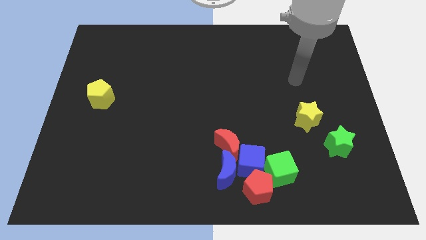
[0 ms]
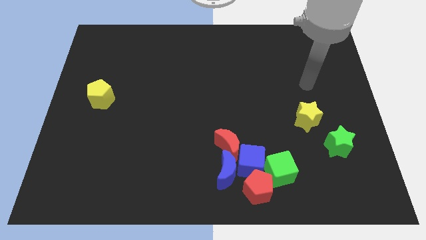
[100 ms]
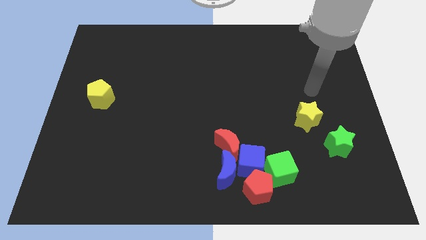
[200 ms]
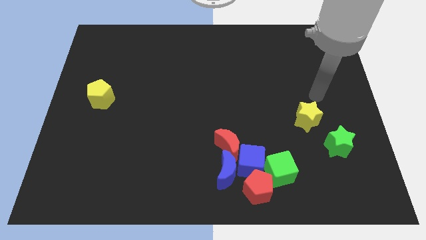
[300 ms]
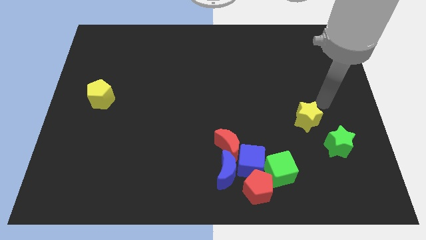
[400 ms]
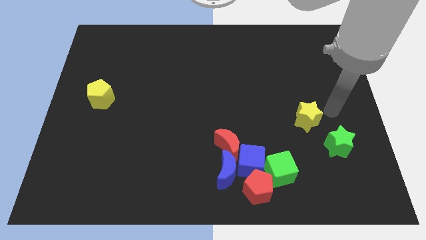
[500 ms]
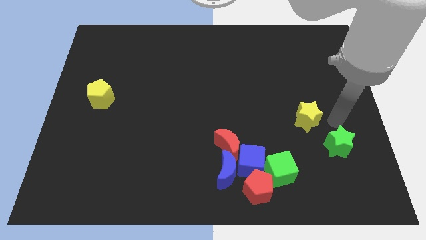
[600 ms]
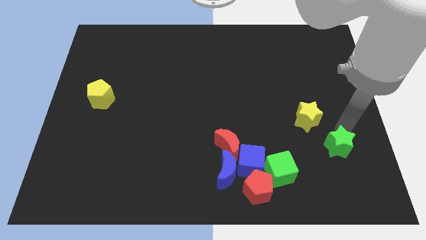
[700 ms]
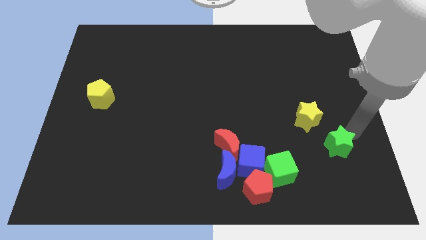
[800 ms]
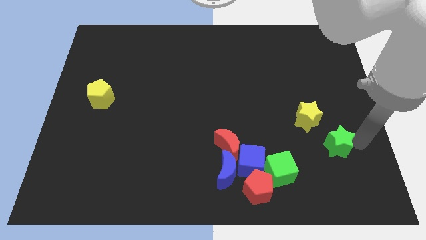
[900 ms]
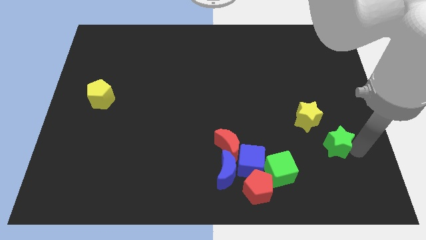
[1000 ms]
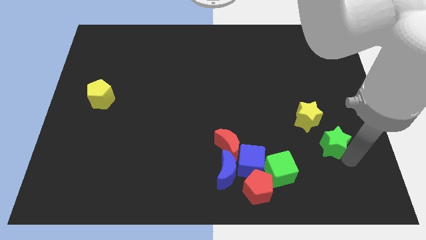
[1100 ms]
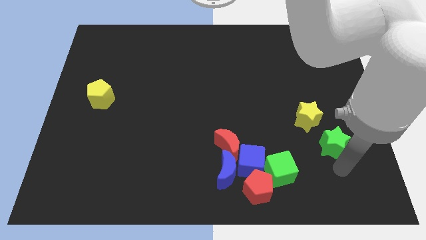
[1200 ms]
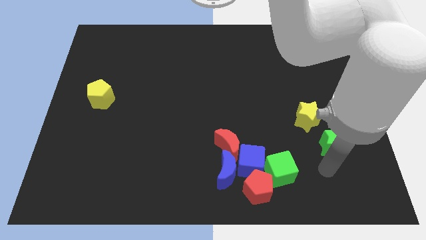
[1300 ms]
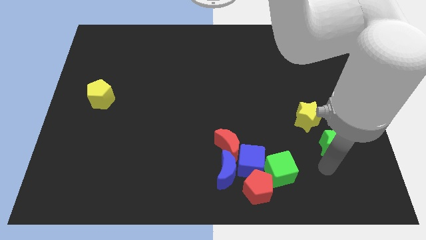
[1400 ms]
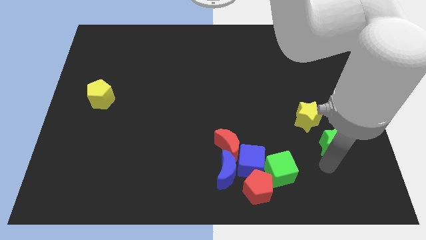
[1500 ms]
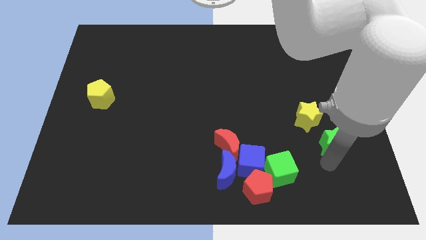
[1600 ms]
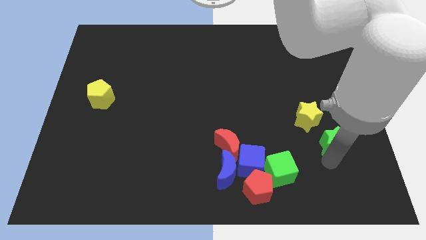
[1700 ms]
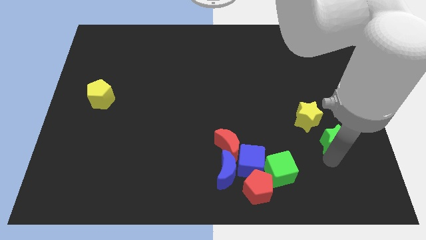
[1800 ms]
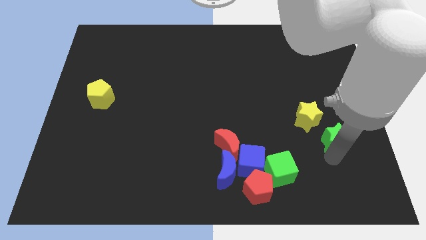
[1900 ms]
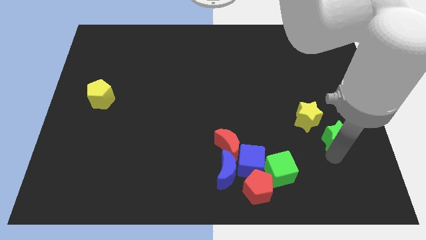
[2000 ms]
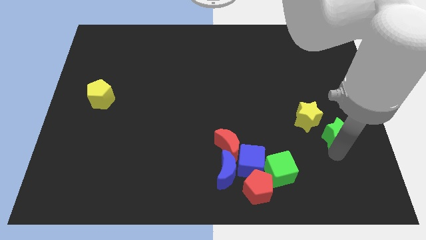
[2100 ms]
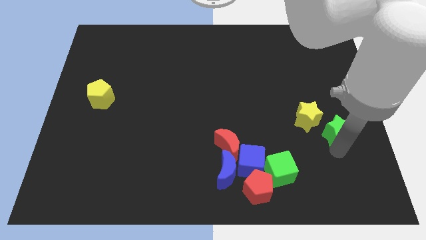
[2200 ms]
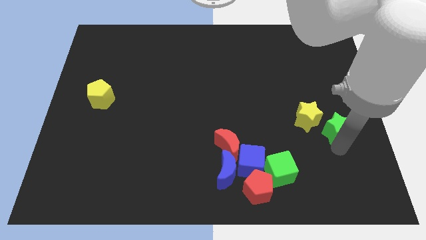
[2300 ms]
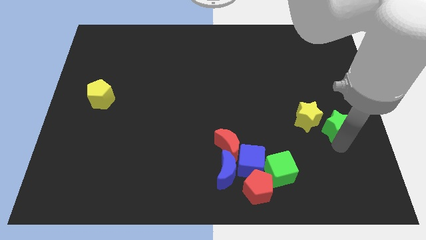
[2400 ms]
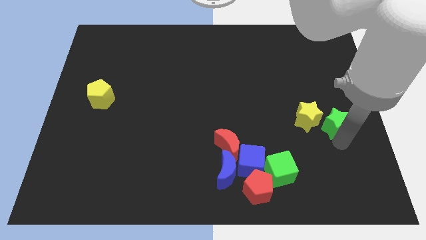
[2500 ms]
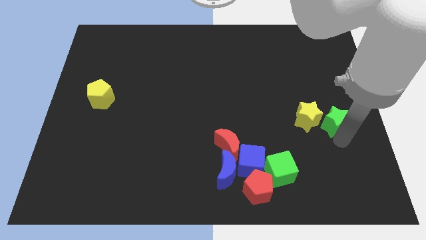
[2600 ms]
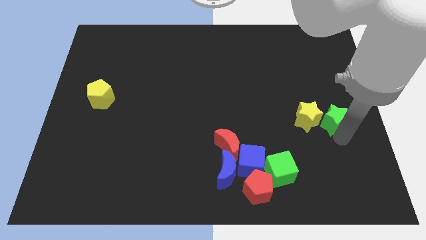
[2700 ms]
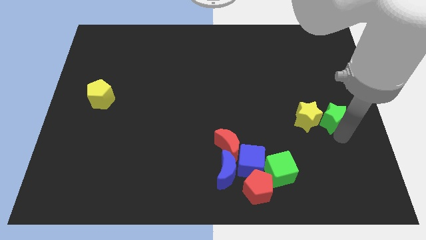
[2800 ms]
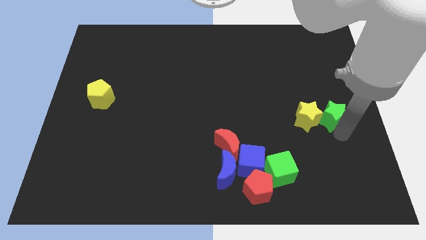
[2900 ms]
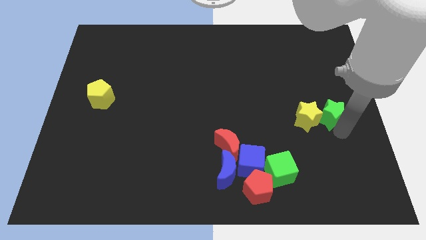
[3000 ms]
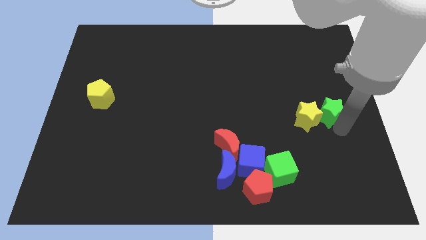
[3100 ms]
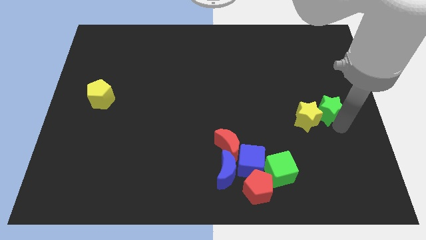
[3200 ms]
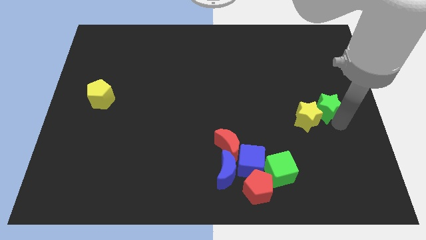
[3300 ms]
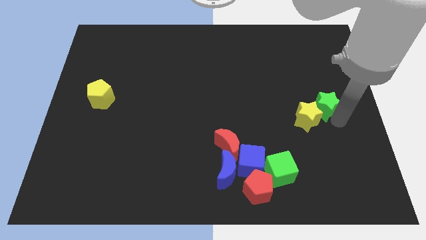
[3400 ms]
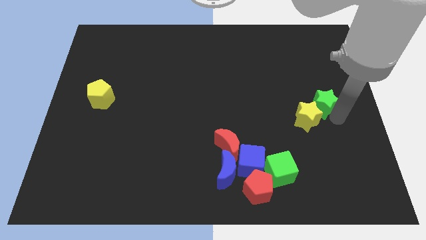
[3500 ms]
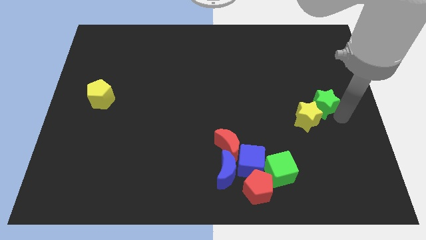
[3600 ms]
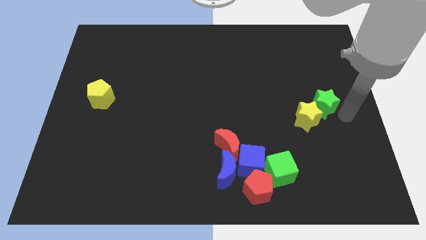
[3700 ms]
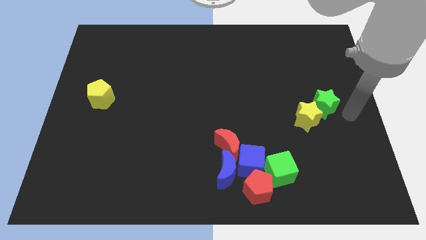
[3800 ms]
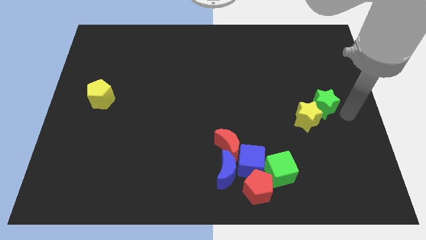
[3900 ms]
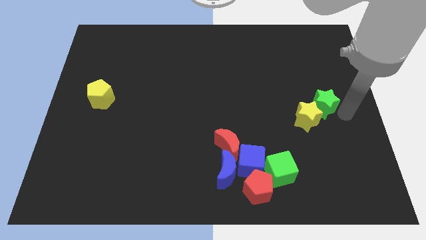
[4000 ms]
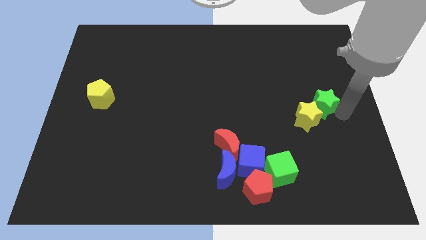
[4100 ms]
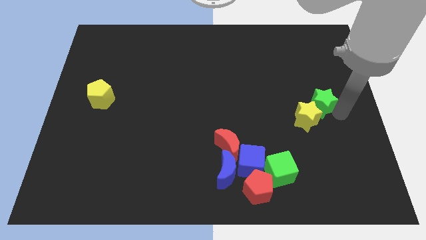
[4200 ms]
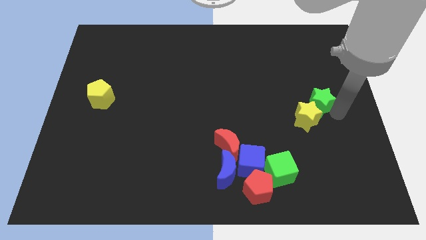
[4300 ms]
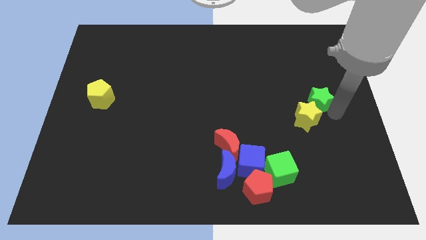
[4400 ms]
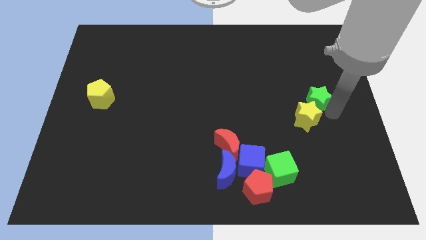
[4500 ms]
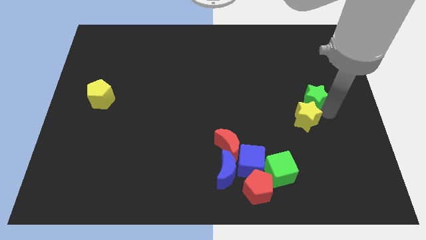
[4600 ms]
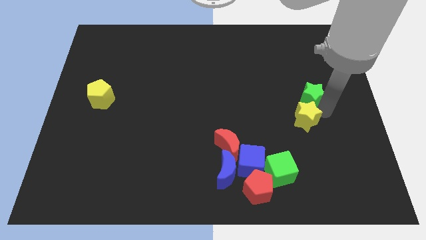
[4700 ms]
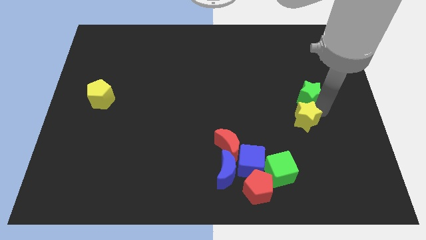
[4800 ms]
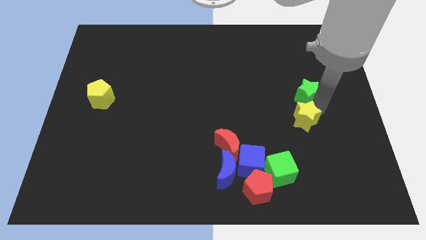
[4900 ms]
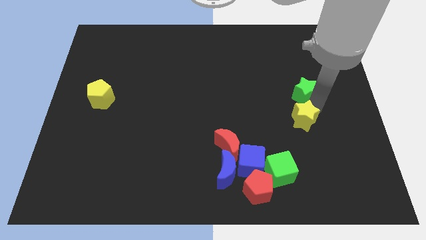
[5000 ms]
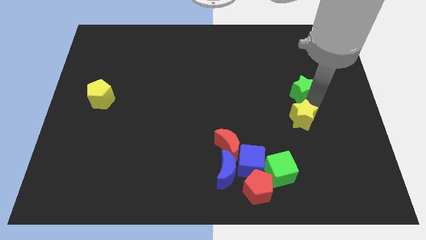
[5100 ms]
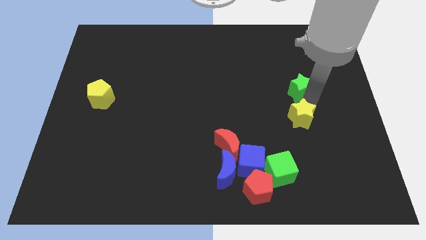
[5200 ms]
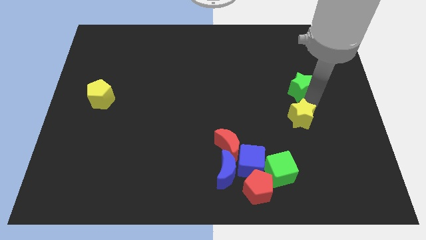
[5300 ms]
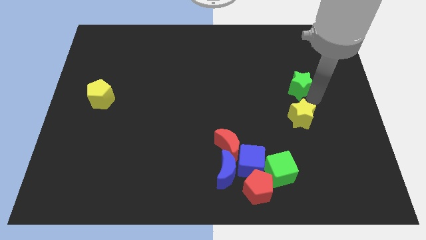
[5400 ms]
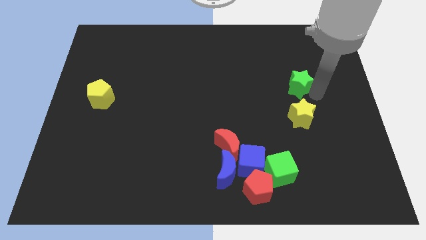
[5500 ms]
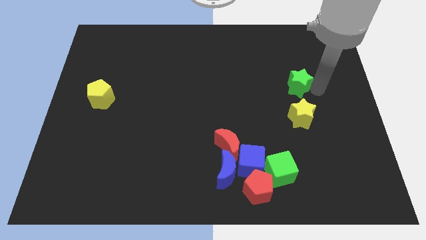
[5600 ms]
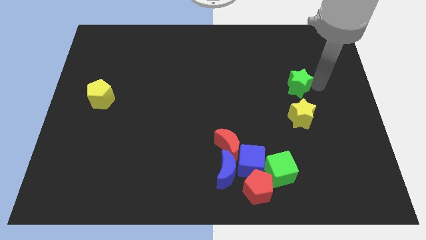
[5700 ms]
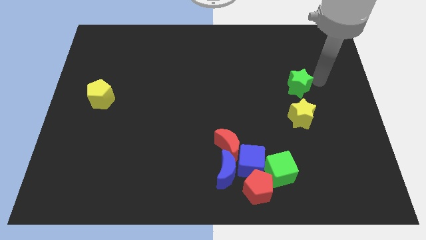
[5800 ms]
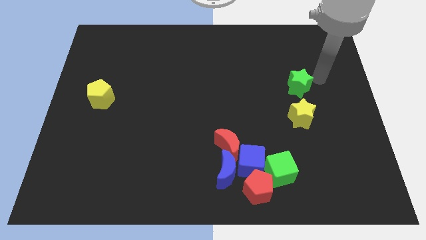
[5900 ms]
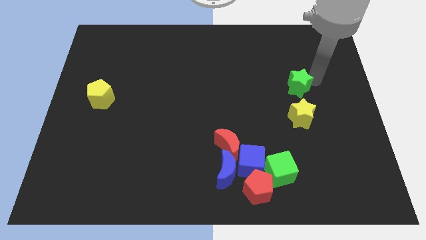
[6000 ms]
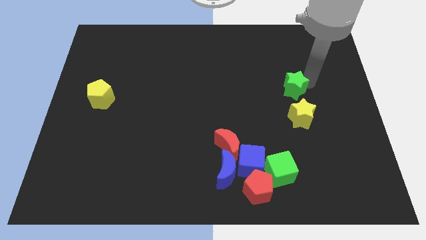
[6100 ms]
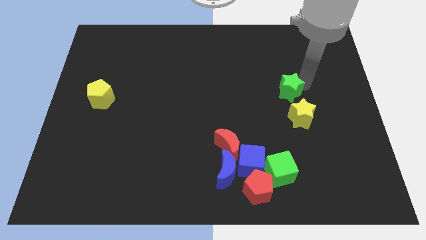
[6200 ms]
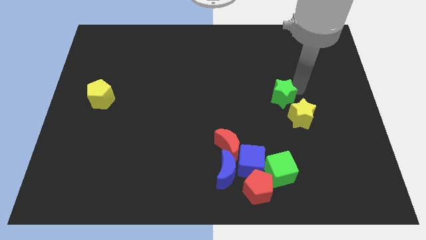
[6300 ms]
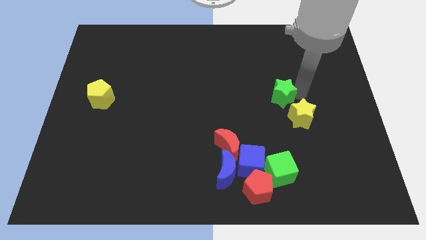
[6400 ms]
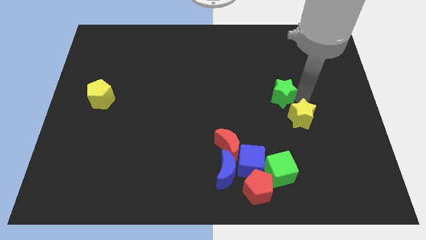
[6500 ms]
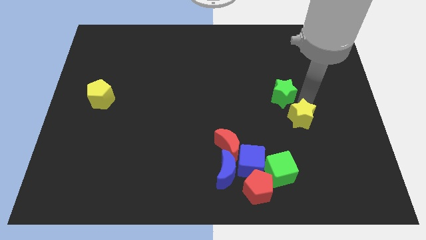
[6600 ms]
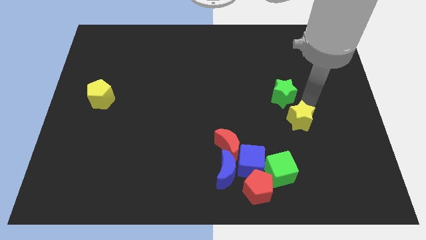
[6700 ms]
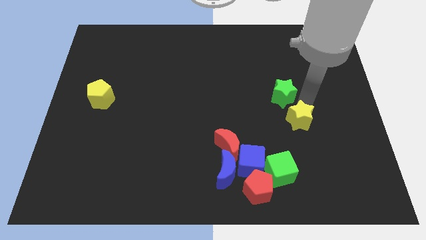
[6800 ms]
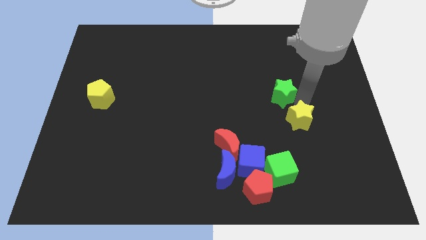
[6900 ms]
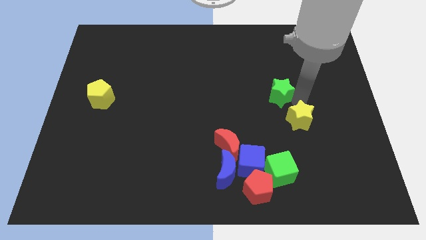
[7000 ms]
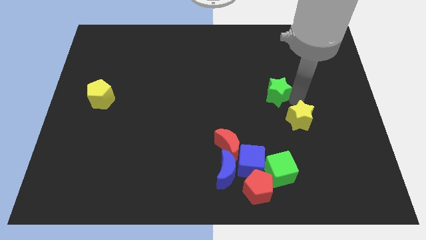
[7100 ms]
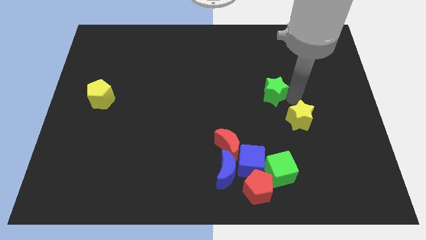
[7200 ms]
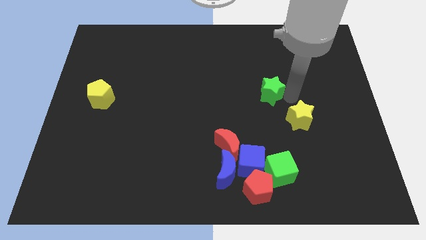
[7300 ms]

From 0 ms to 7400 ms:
move the green star upwards and then left

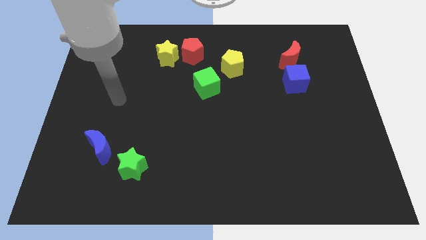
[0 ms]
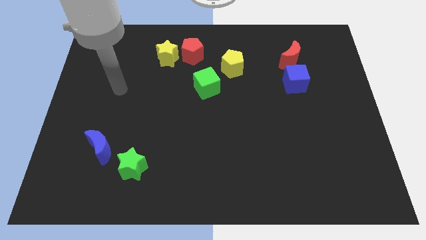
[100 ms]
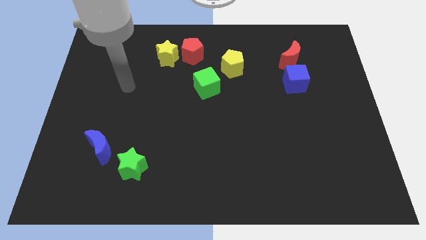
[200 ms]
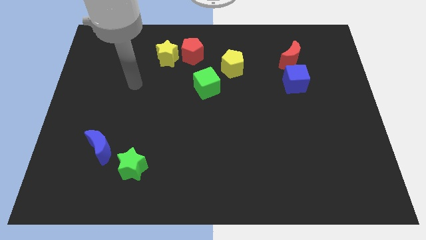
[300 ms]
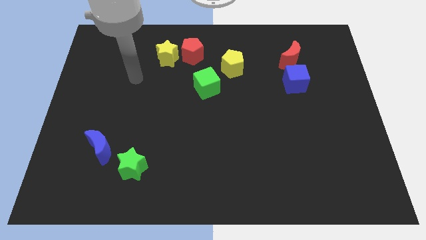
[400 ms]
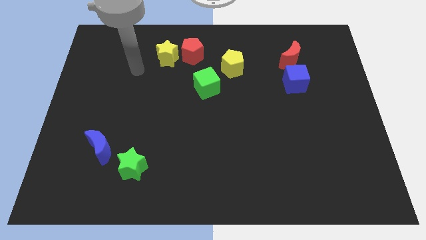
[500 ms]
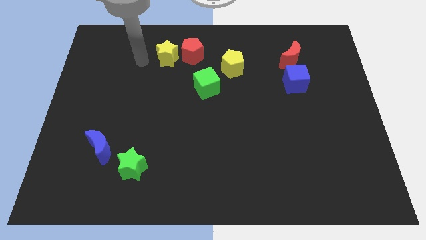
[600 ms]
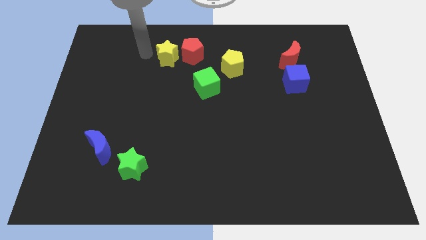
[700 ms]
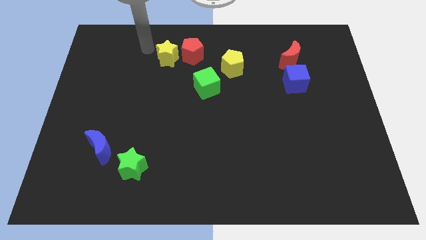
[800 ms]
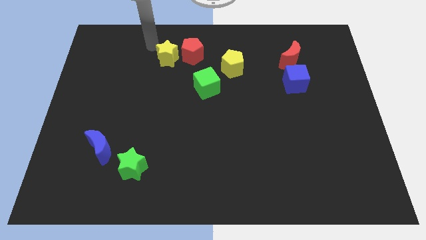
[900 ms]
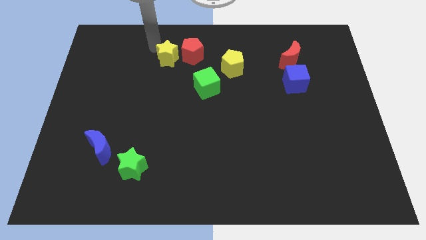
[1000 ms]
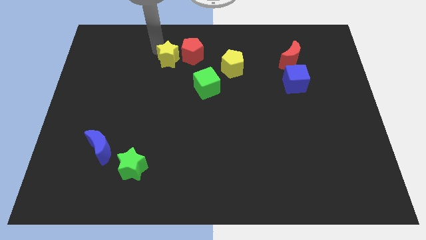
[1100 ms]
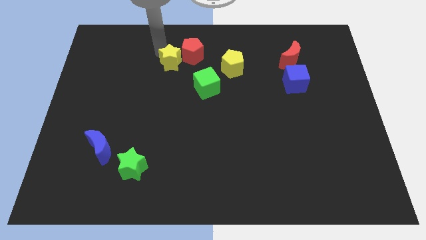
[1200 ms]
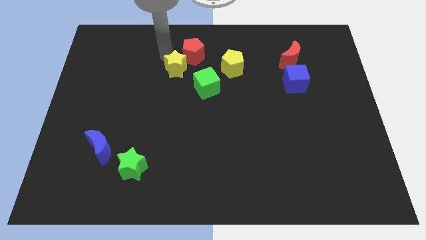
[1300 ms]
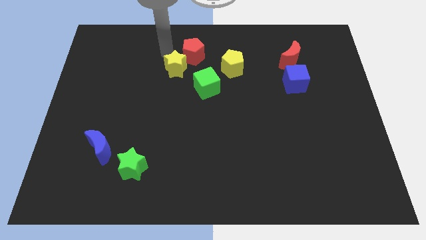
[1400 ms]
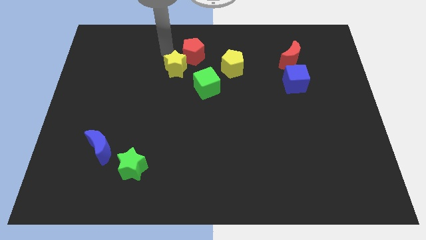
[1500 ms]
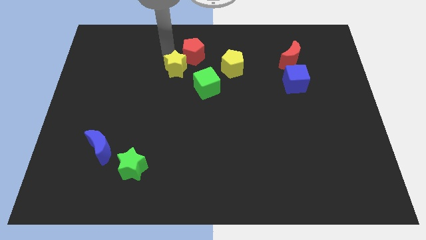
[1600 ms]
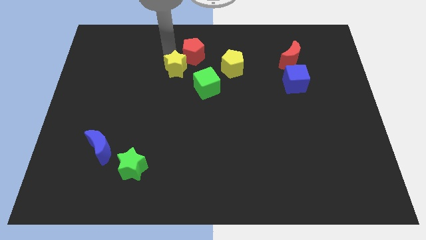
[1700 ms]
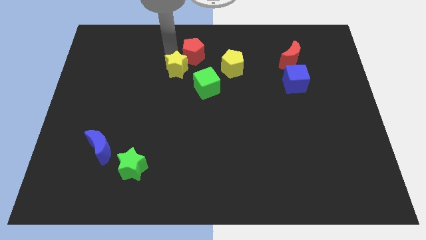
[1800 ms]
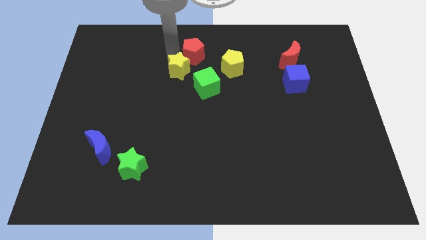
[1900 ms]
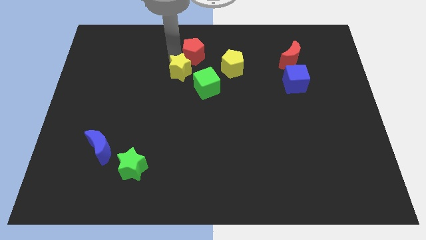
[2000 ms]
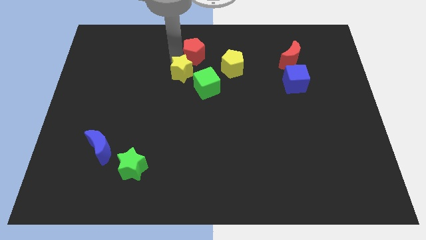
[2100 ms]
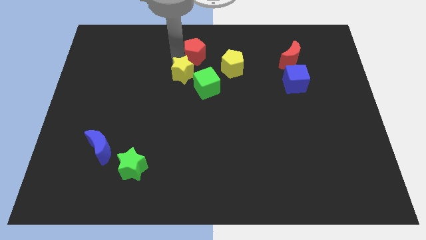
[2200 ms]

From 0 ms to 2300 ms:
slightly push the yellow star downwards and to the right diagonally
